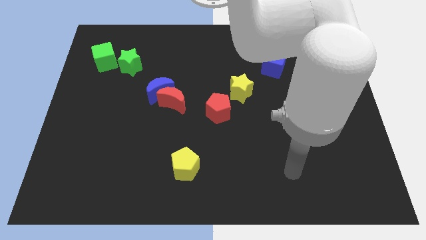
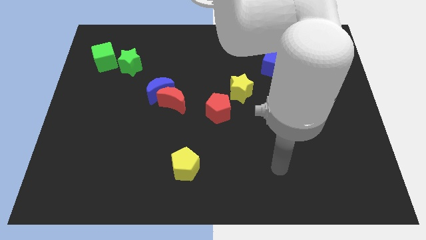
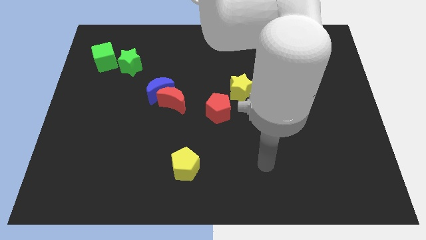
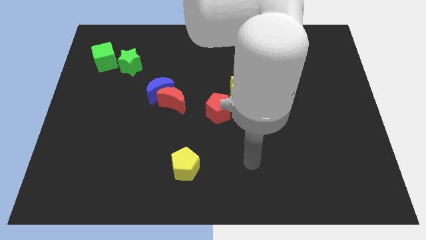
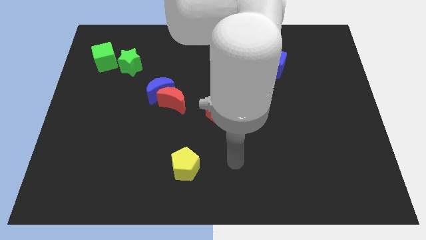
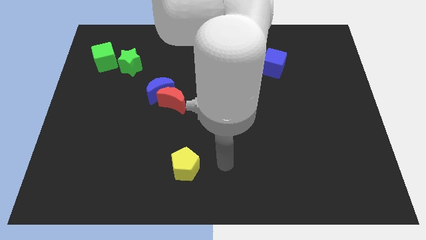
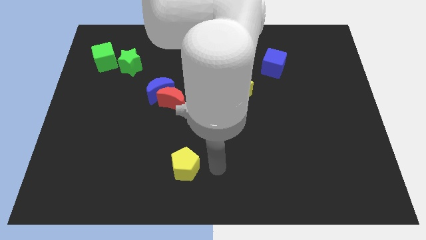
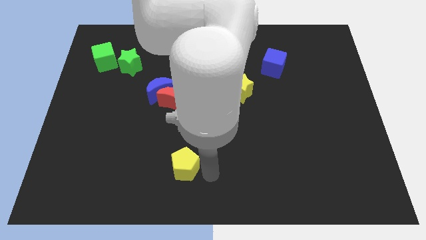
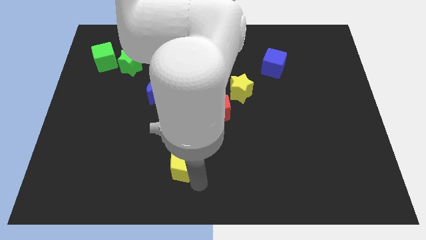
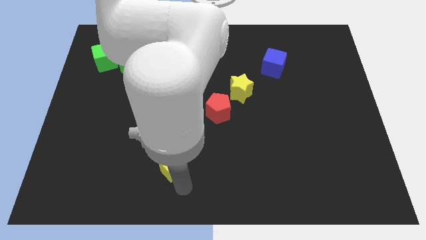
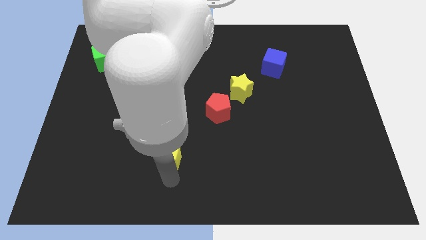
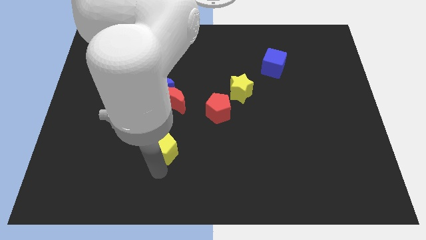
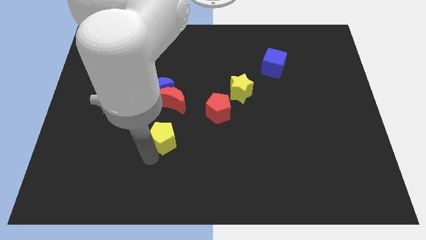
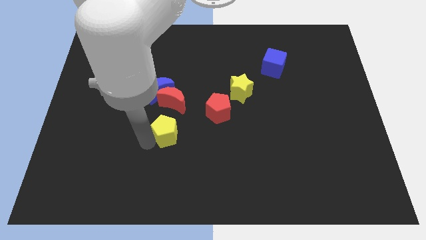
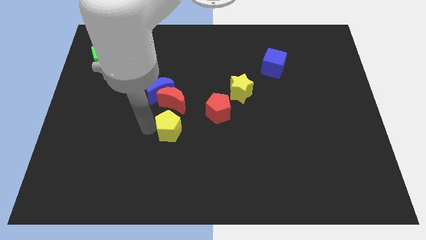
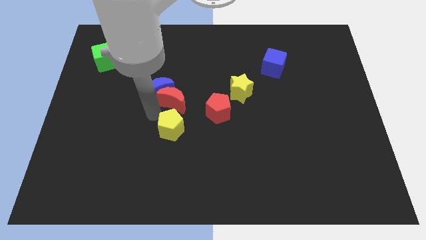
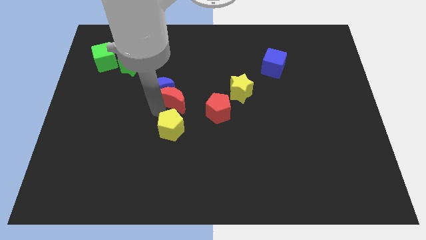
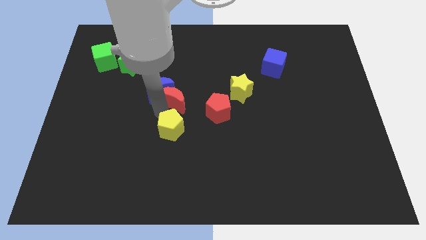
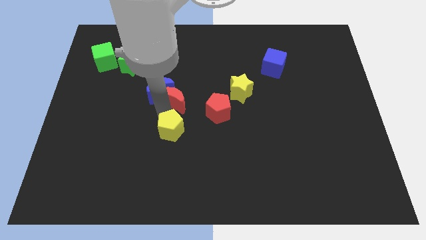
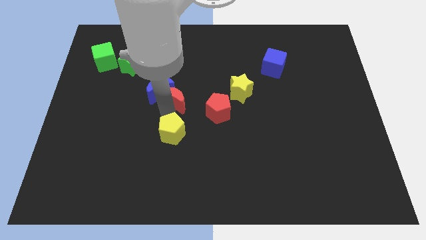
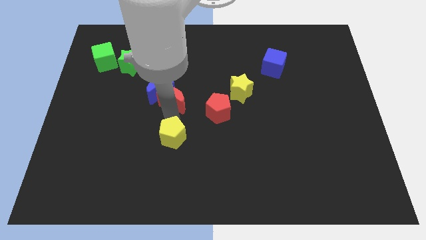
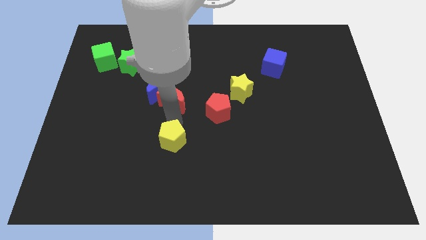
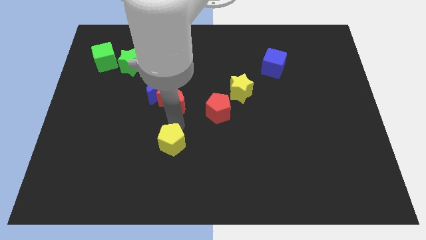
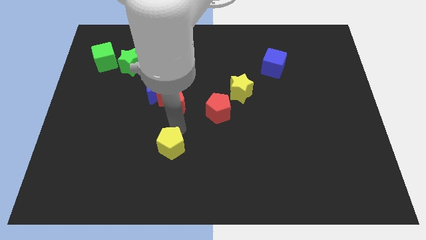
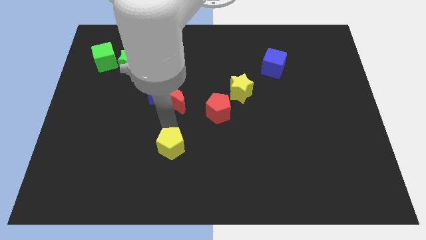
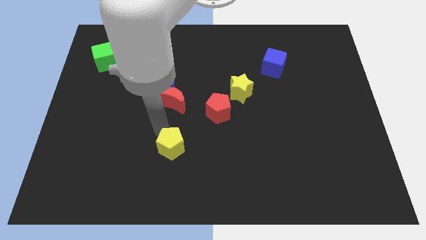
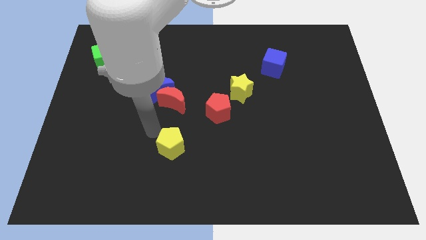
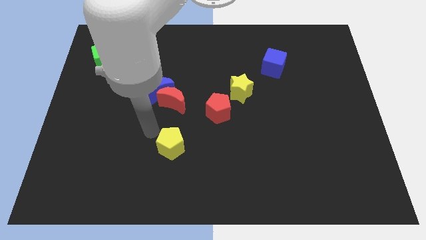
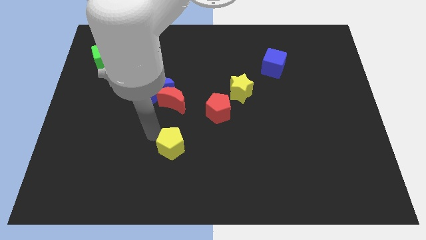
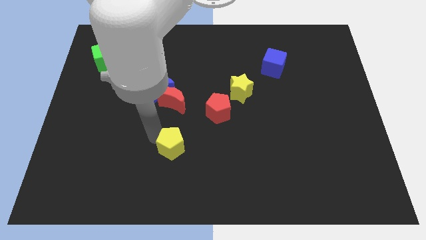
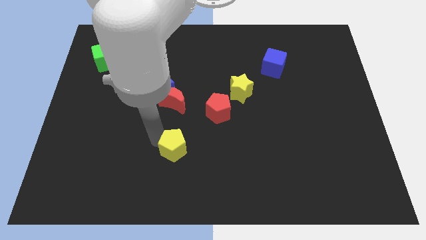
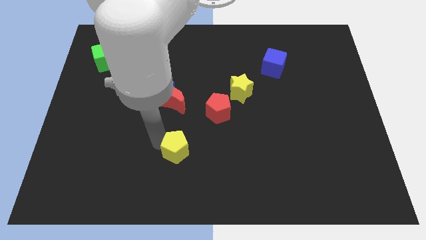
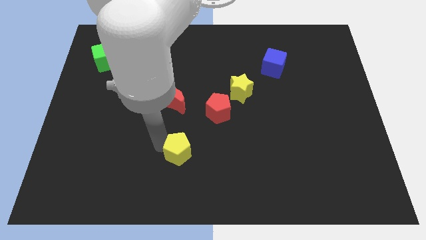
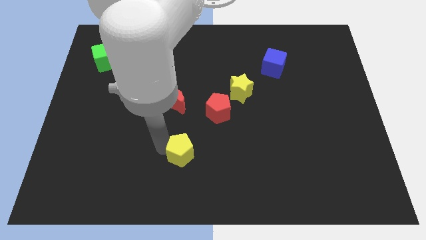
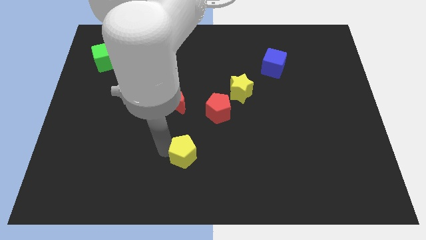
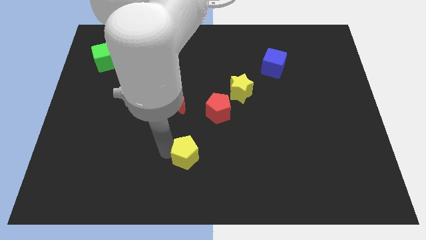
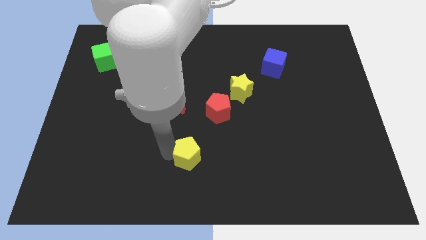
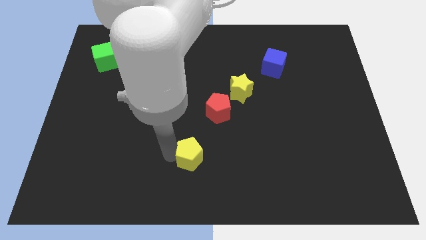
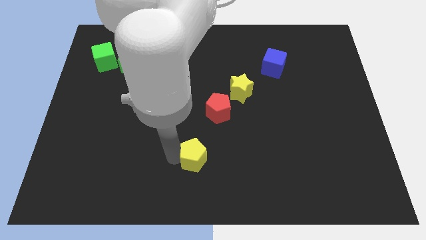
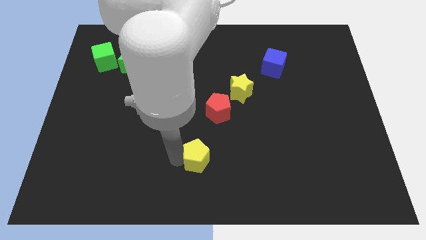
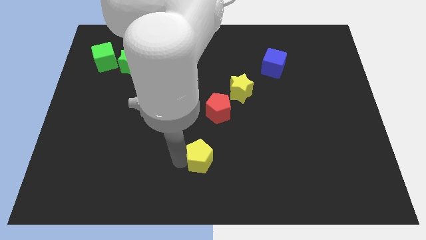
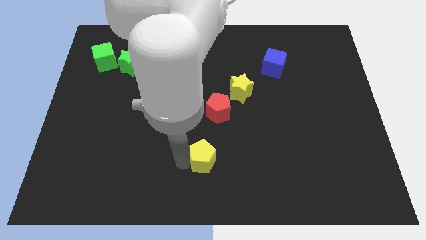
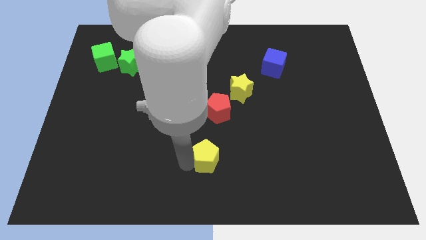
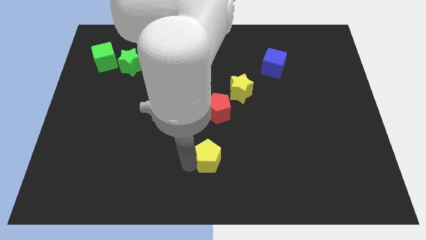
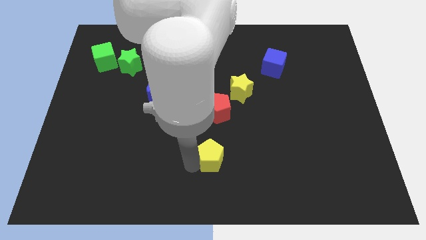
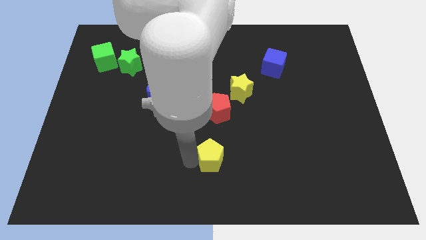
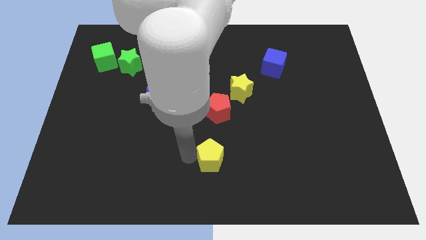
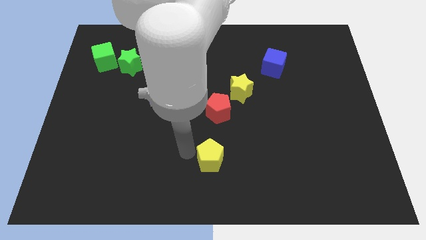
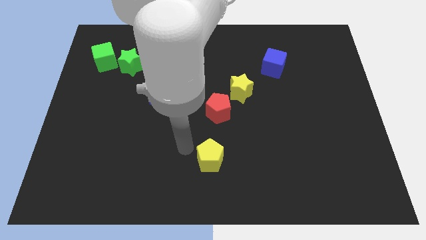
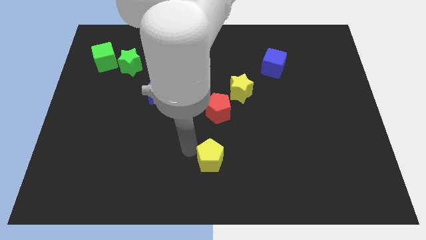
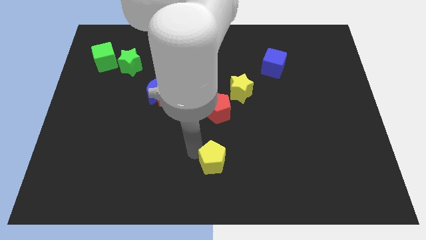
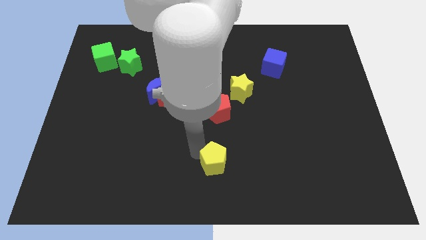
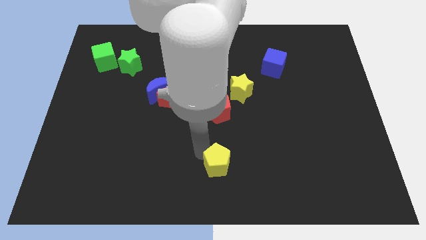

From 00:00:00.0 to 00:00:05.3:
slightly move the yellow pentagon to the right

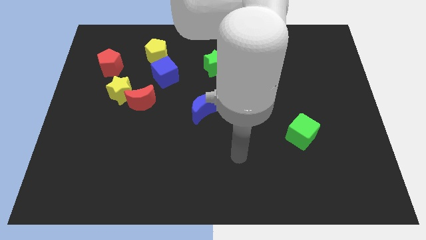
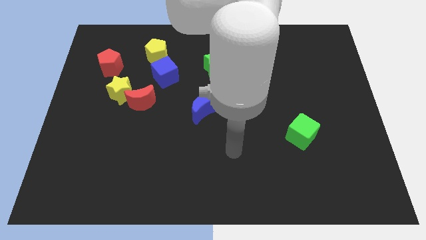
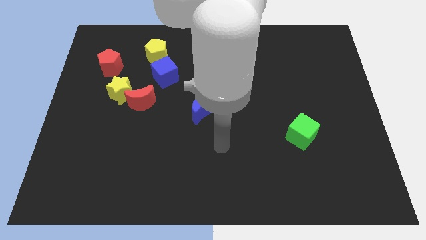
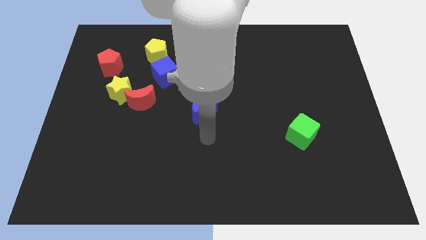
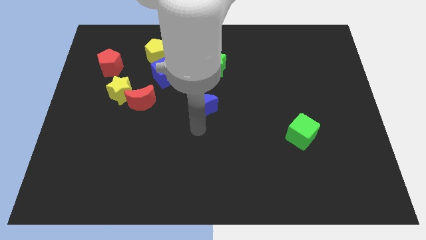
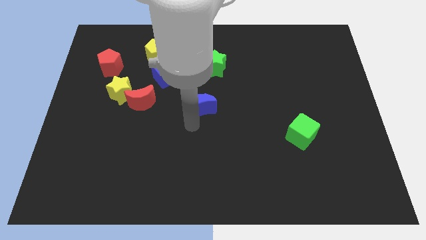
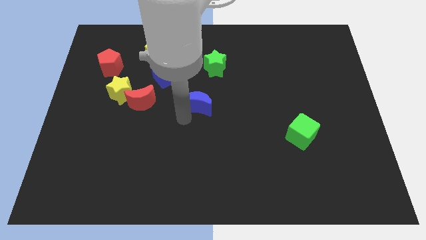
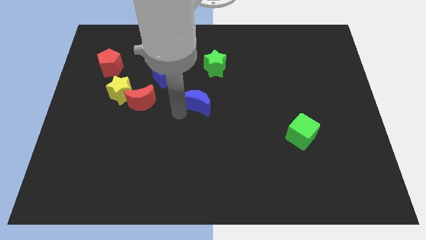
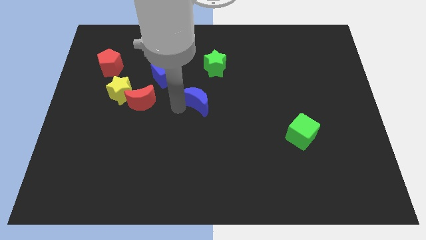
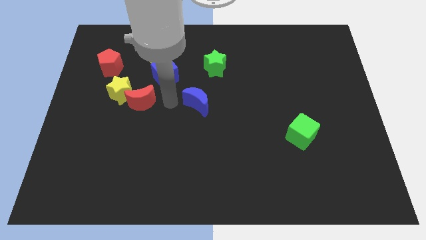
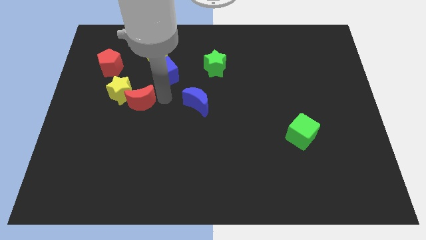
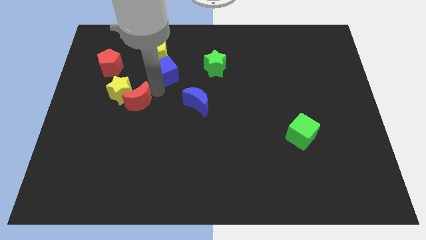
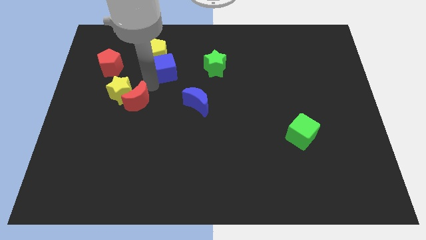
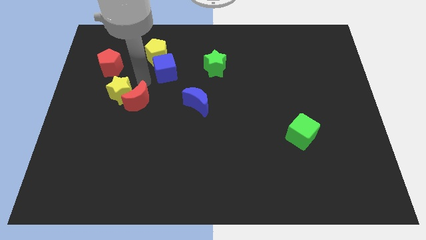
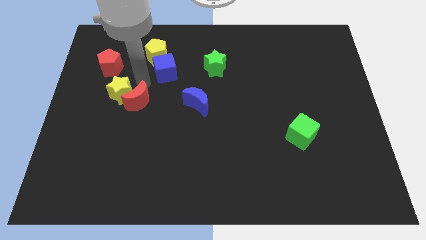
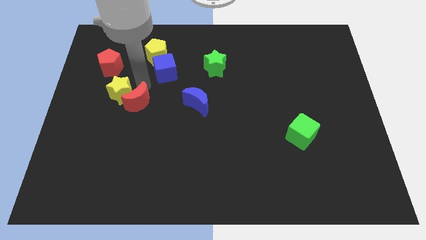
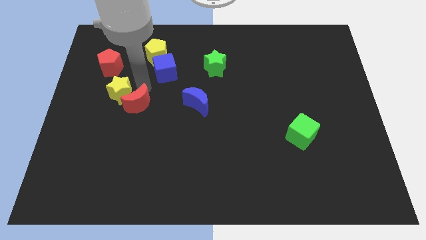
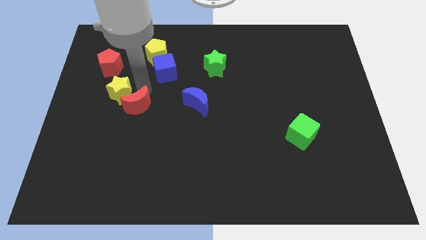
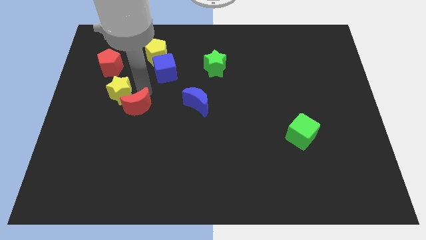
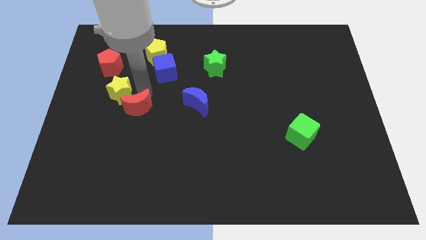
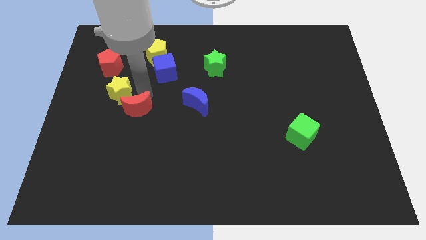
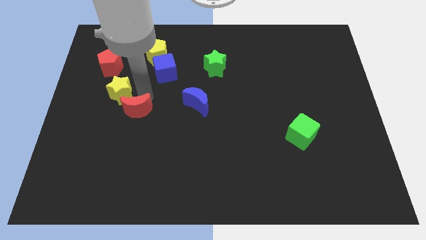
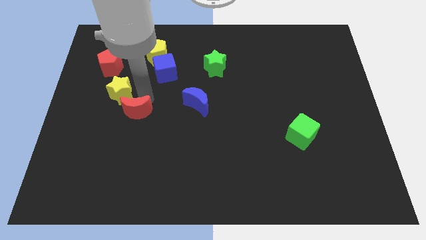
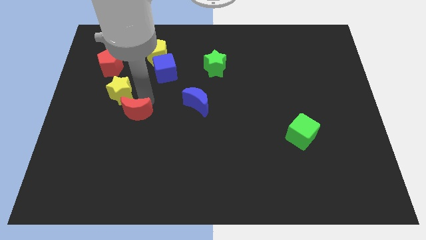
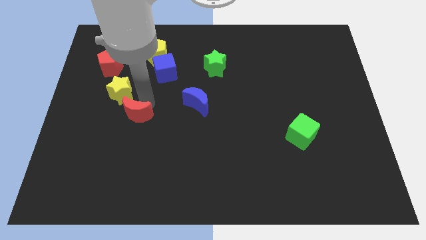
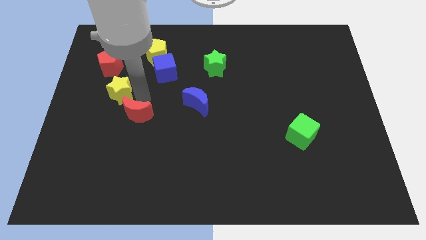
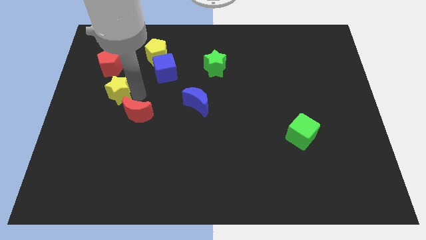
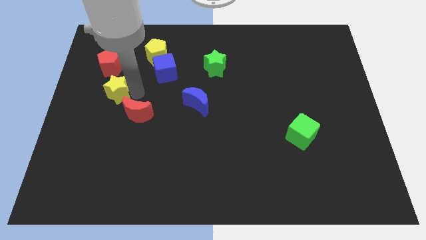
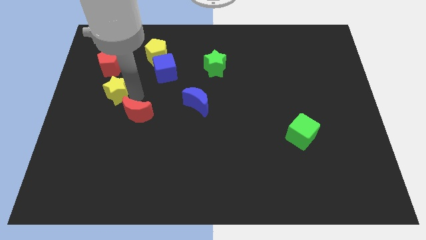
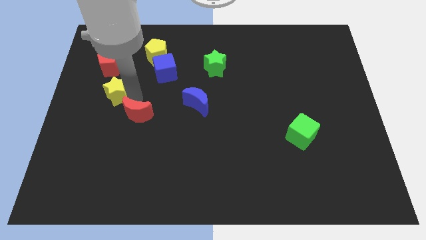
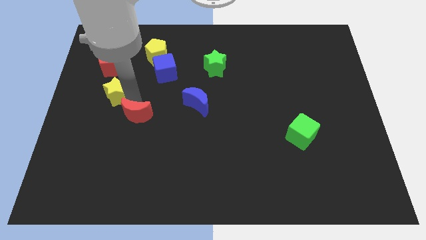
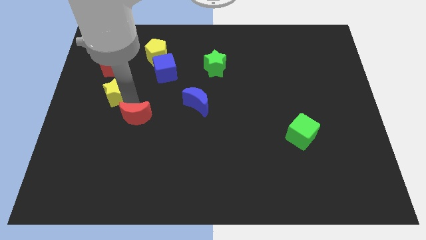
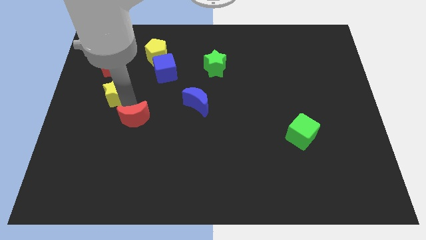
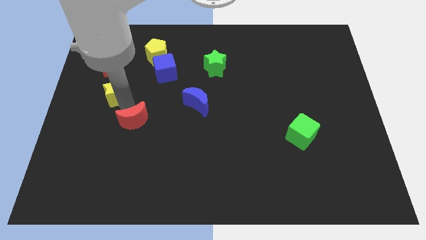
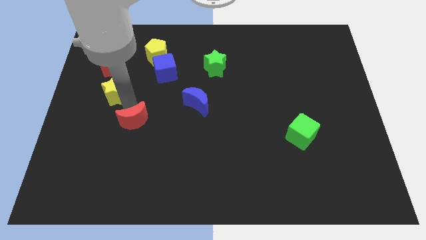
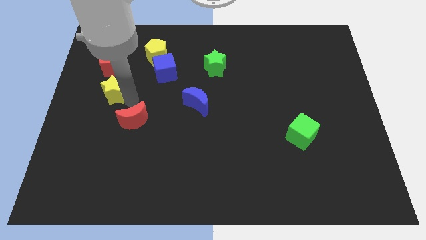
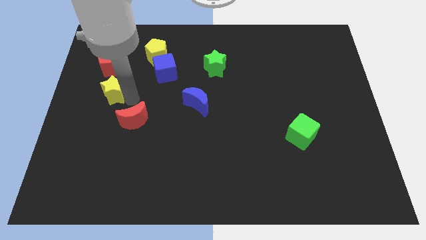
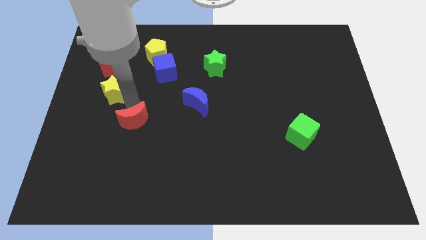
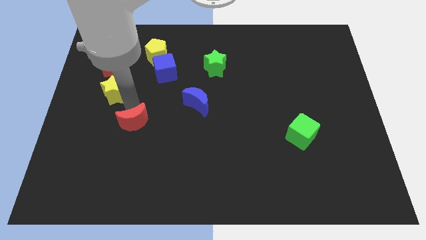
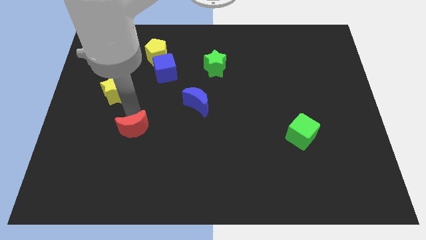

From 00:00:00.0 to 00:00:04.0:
move the red moon downwards a little bit
